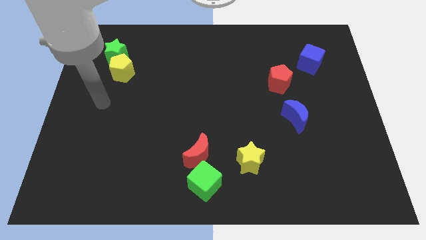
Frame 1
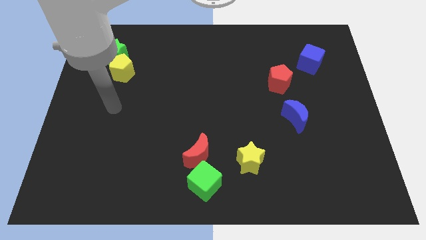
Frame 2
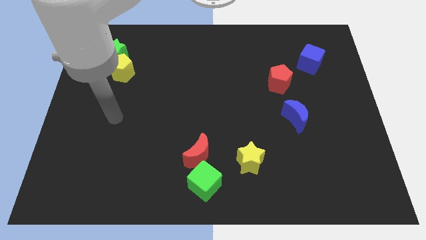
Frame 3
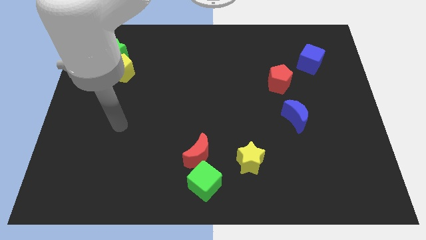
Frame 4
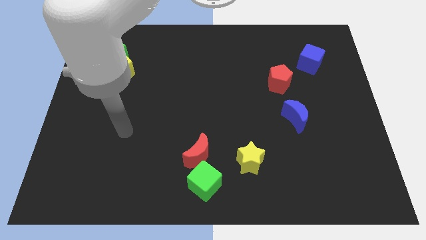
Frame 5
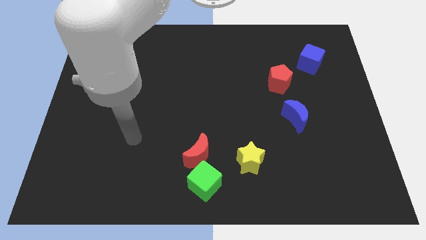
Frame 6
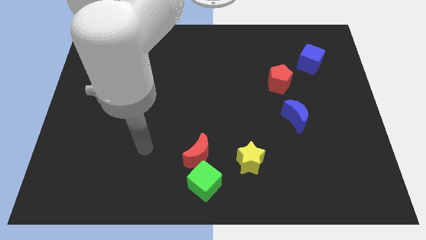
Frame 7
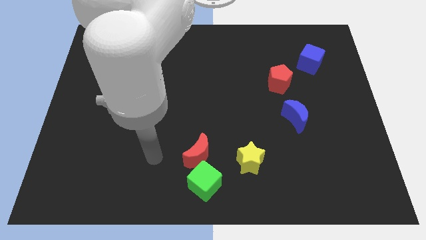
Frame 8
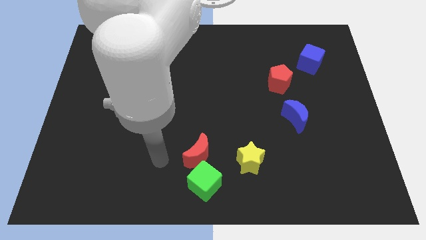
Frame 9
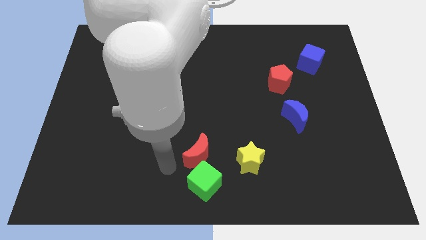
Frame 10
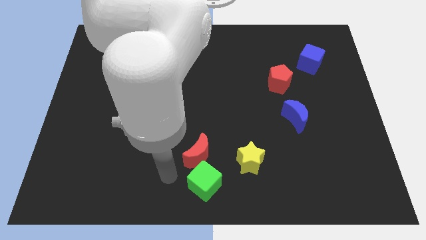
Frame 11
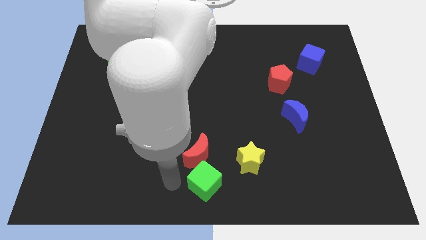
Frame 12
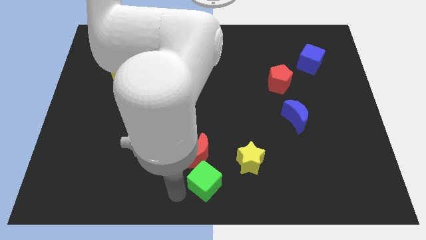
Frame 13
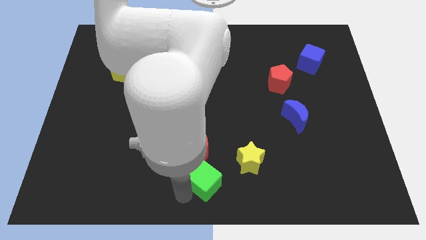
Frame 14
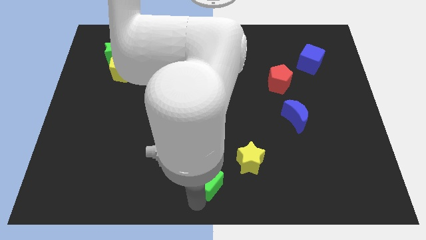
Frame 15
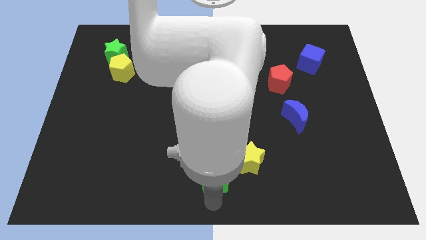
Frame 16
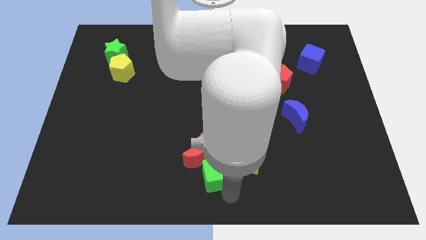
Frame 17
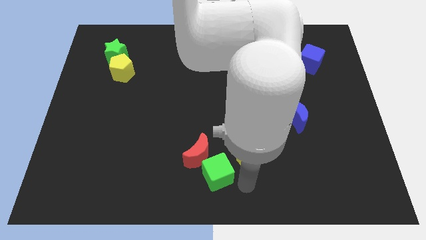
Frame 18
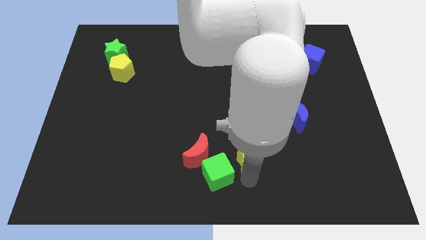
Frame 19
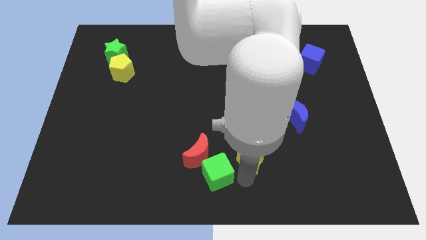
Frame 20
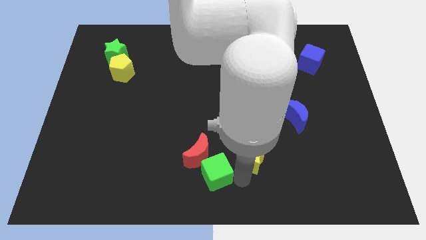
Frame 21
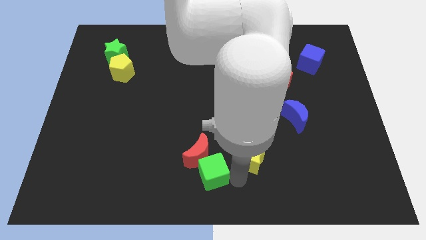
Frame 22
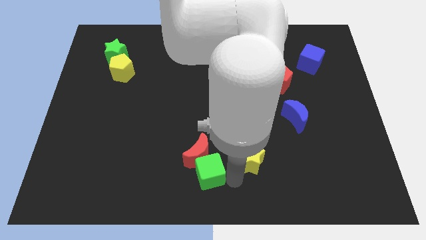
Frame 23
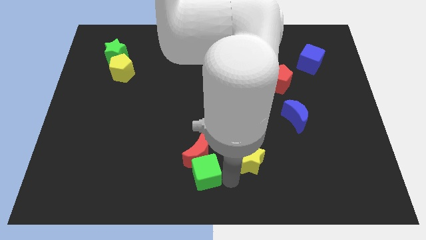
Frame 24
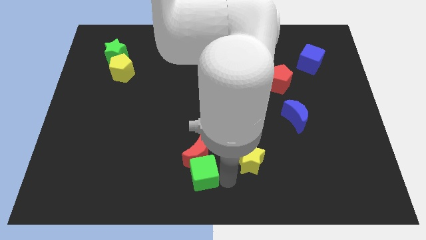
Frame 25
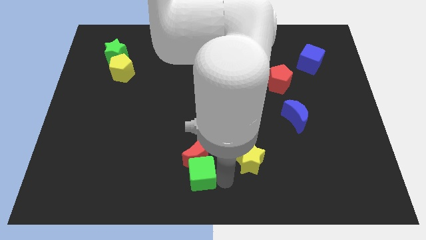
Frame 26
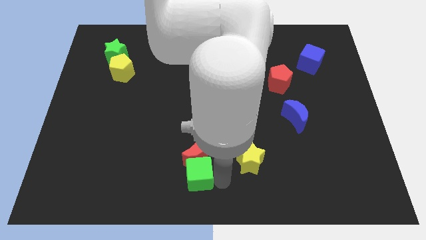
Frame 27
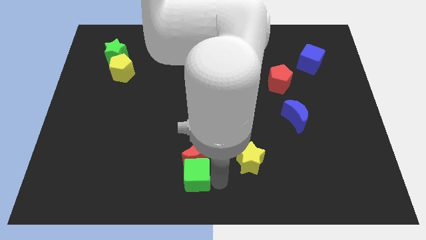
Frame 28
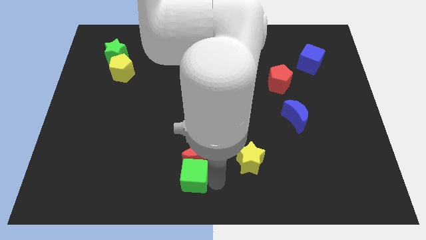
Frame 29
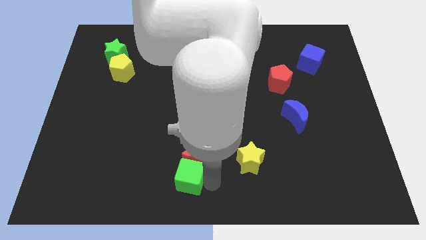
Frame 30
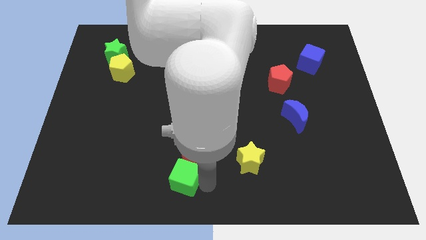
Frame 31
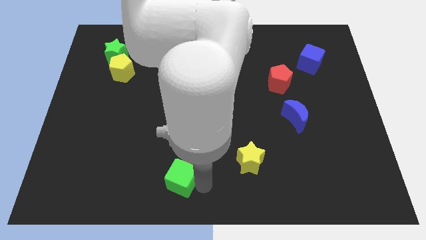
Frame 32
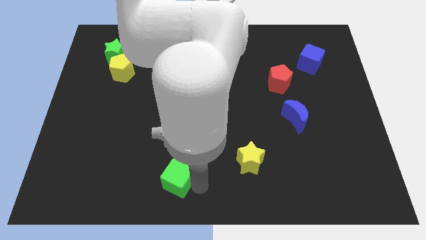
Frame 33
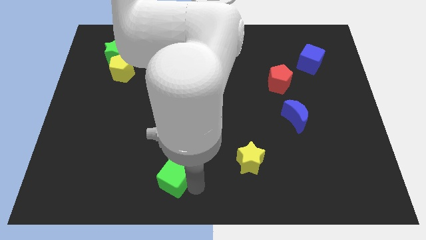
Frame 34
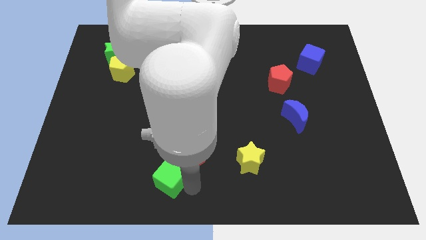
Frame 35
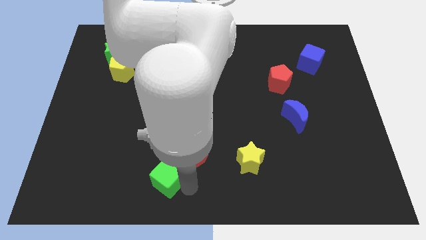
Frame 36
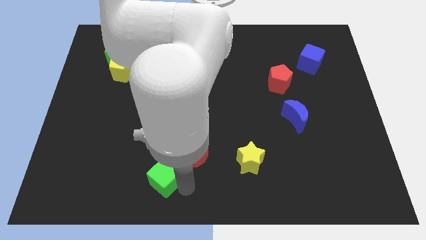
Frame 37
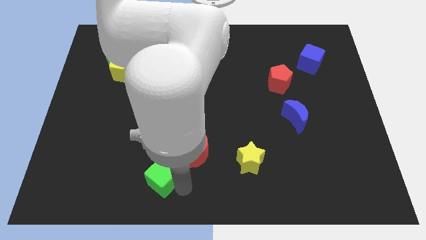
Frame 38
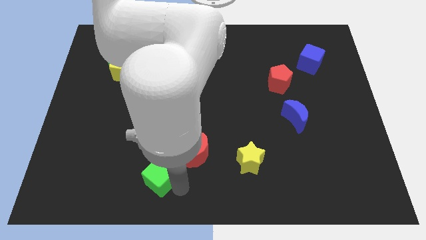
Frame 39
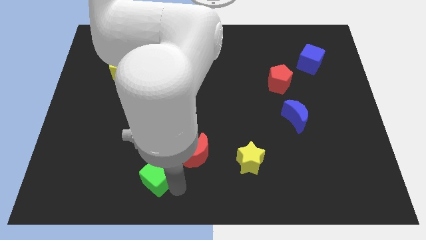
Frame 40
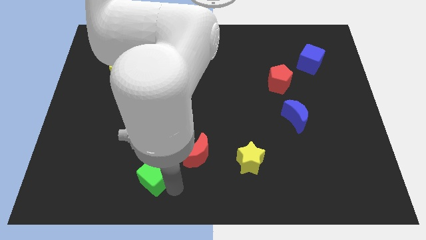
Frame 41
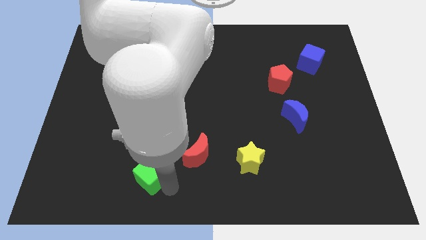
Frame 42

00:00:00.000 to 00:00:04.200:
move the green cube a little bit diagonally up and left

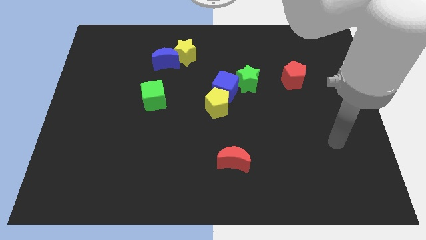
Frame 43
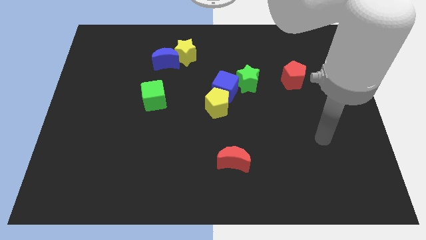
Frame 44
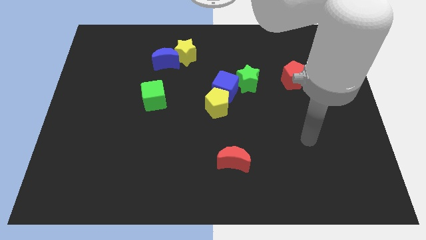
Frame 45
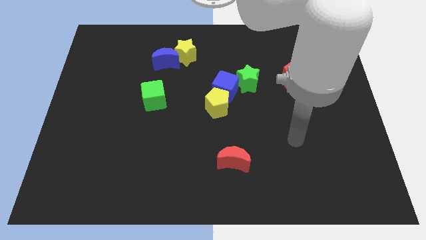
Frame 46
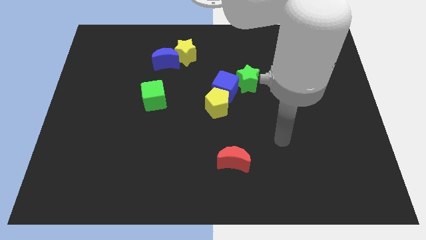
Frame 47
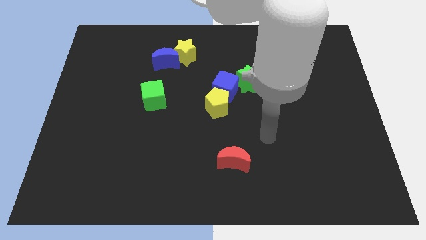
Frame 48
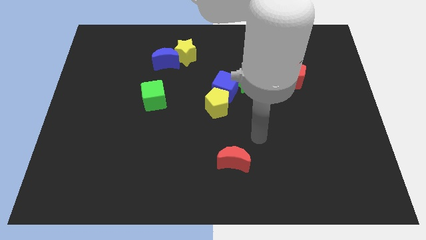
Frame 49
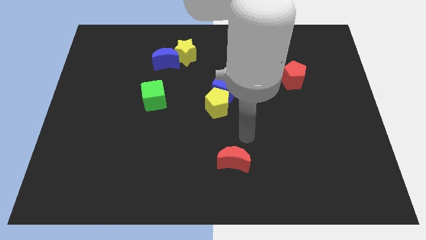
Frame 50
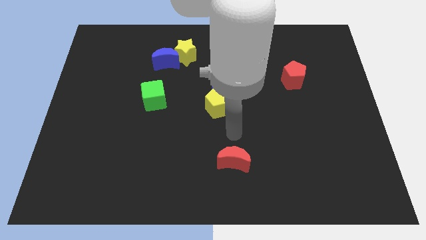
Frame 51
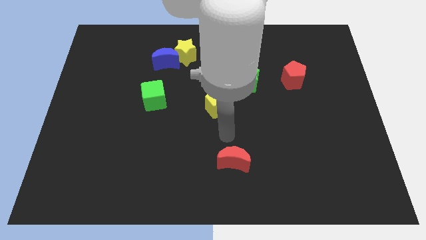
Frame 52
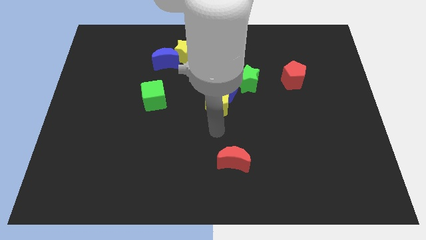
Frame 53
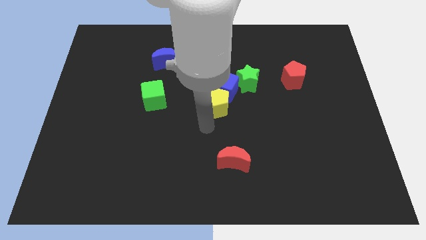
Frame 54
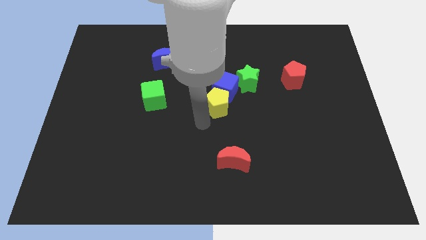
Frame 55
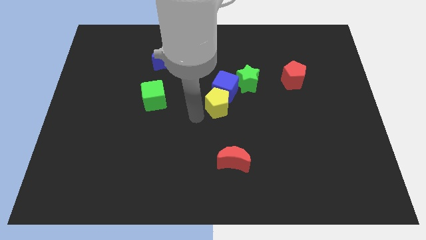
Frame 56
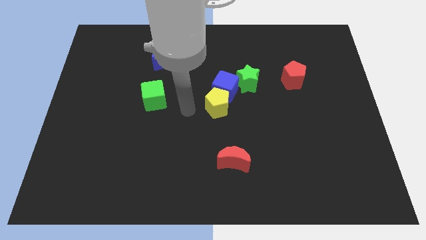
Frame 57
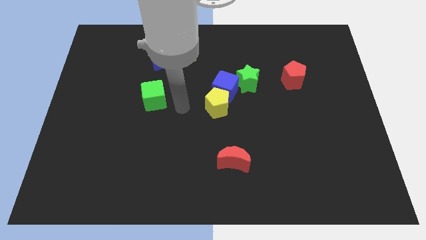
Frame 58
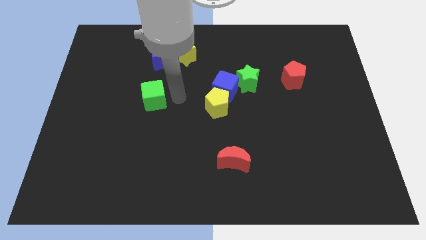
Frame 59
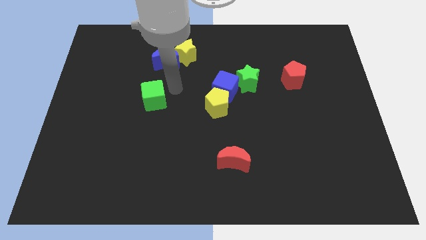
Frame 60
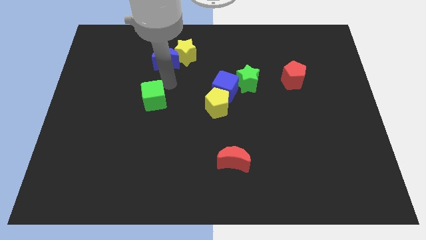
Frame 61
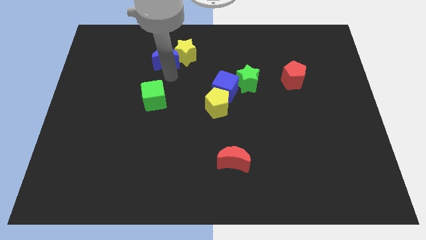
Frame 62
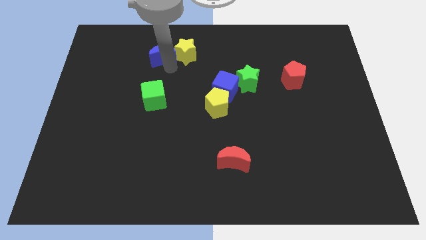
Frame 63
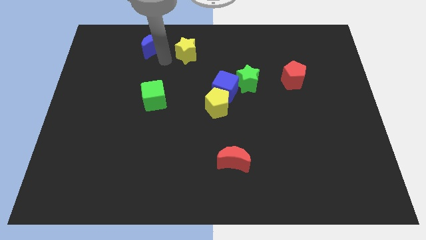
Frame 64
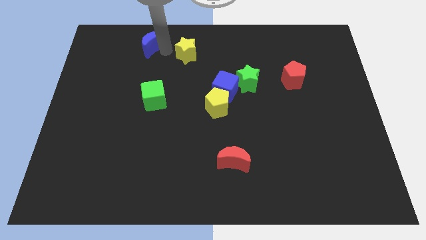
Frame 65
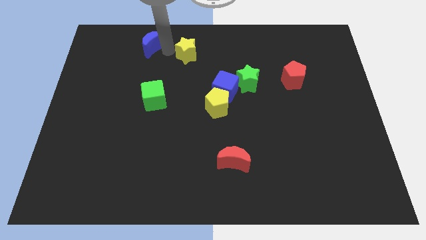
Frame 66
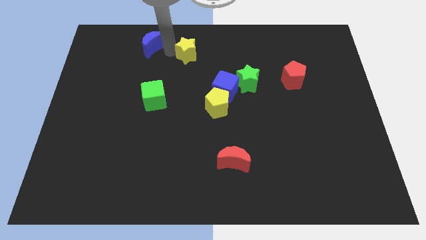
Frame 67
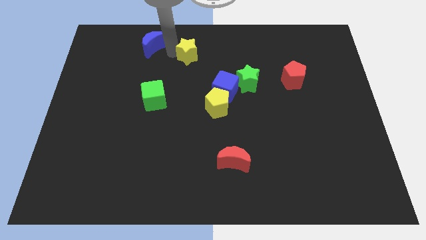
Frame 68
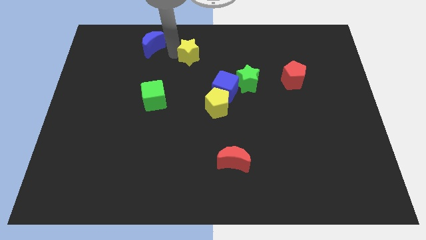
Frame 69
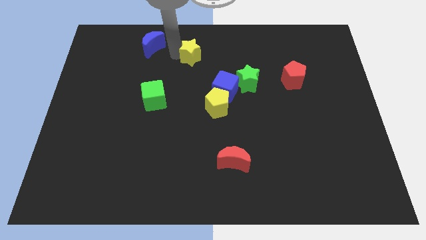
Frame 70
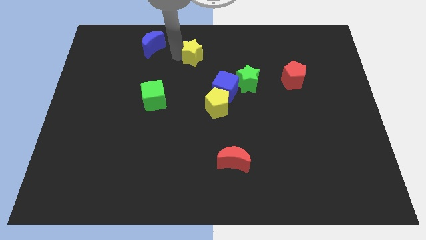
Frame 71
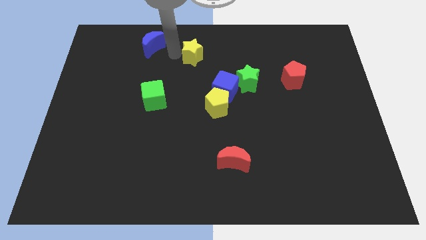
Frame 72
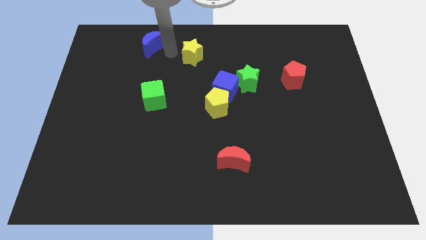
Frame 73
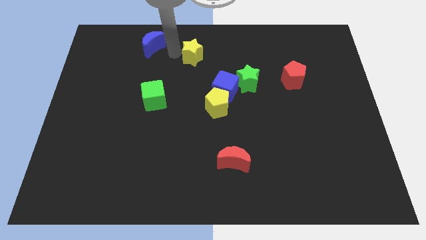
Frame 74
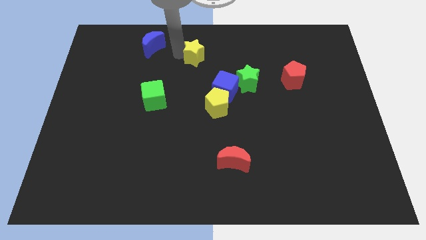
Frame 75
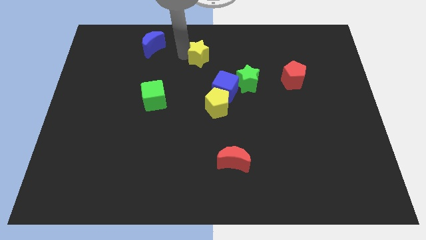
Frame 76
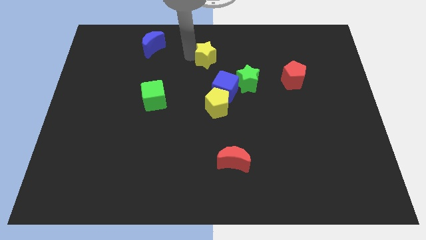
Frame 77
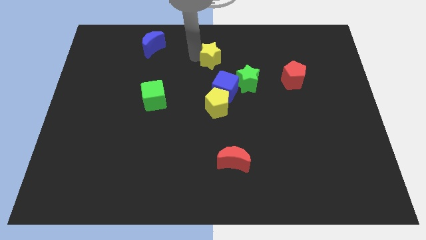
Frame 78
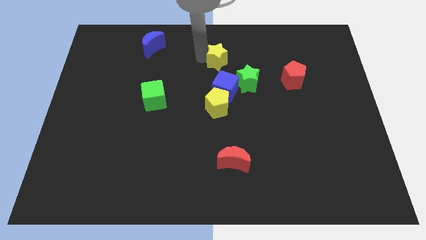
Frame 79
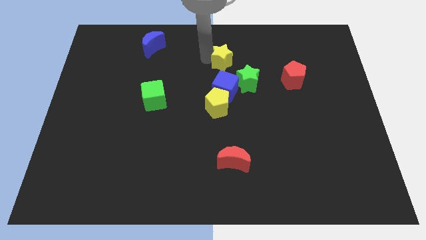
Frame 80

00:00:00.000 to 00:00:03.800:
slide the yellow star a little bit down and then right
